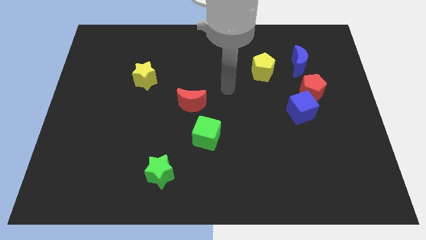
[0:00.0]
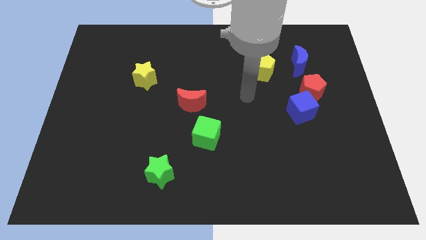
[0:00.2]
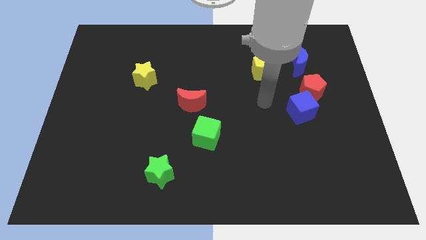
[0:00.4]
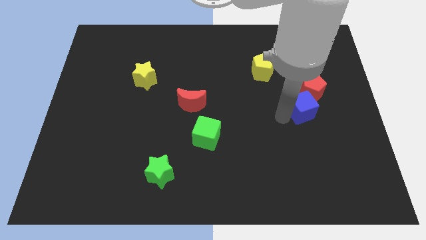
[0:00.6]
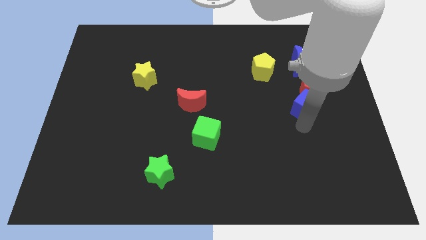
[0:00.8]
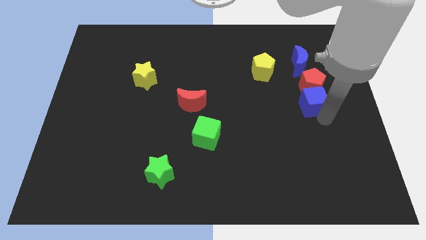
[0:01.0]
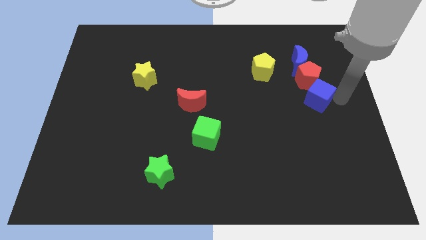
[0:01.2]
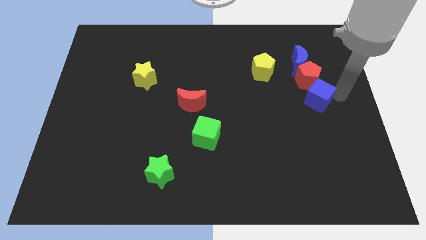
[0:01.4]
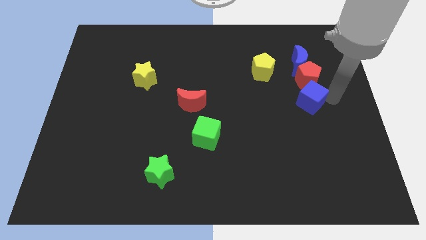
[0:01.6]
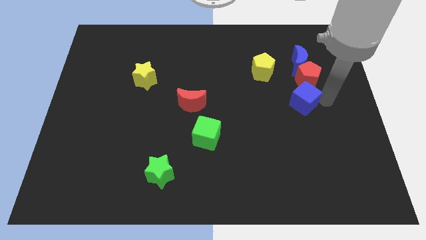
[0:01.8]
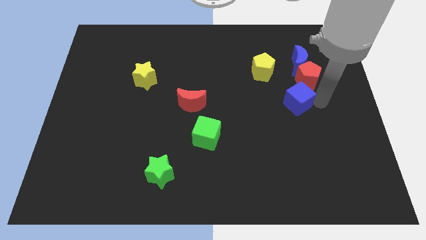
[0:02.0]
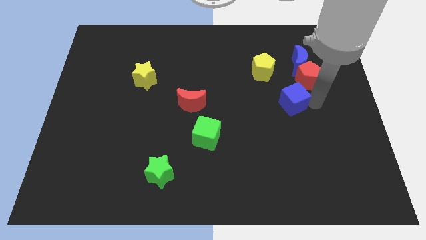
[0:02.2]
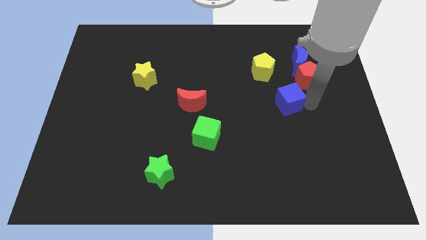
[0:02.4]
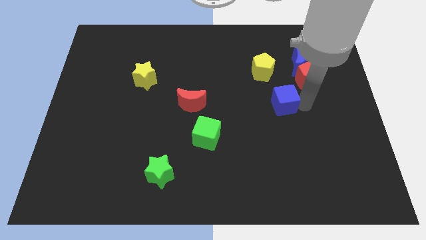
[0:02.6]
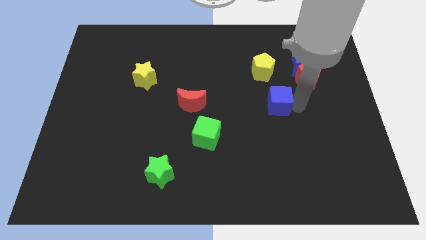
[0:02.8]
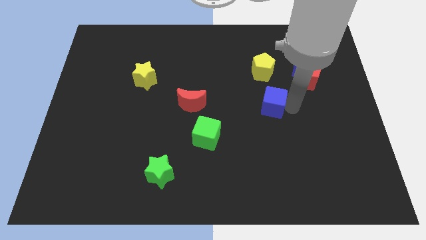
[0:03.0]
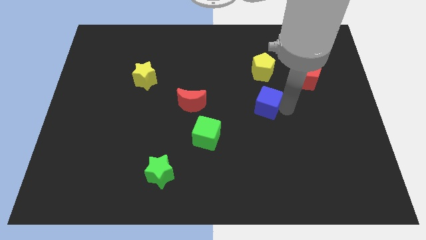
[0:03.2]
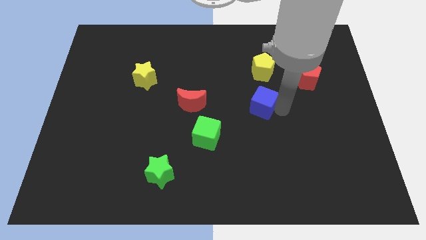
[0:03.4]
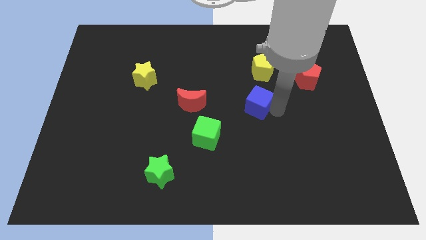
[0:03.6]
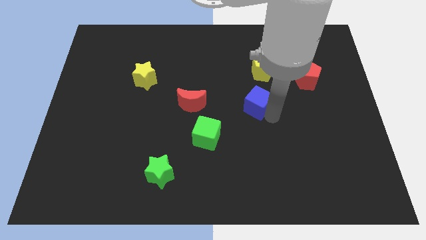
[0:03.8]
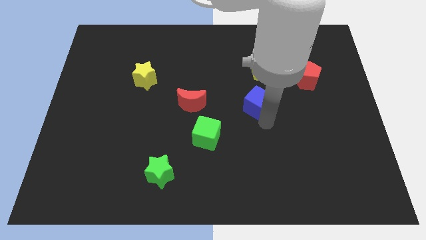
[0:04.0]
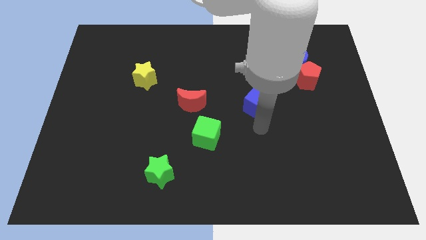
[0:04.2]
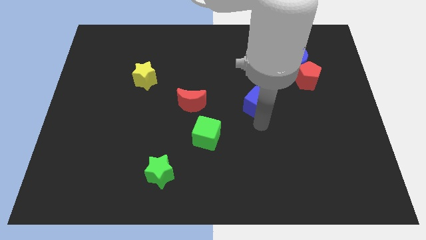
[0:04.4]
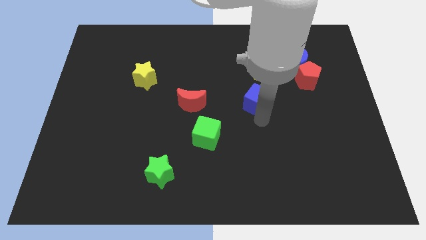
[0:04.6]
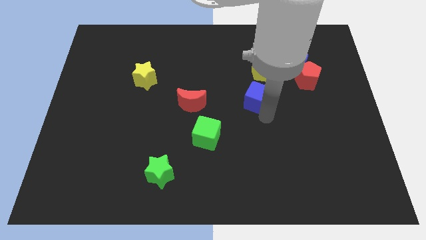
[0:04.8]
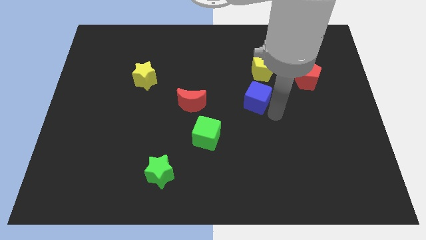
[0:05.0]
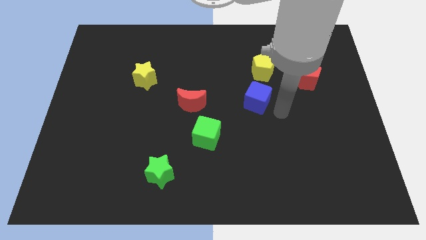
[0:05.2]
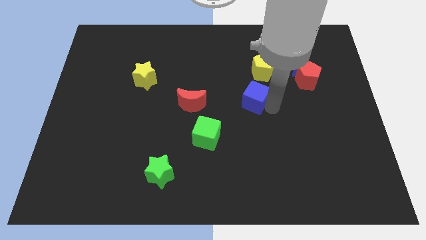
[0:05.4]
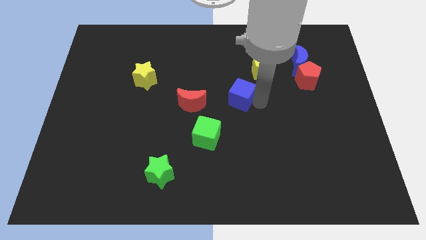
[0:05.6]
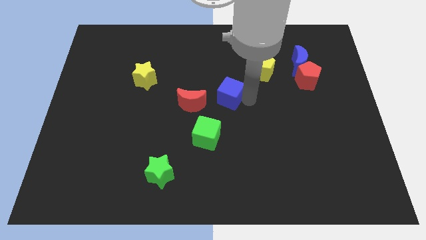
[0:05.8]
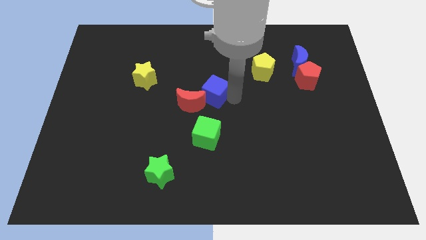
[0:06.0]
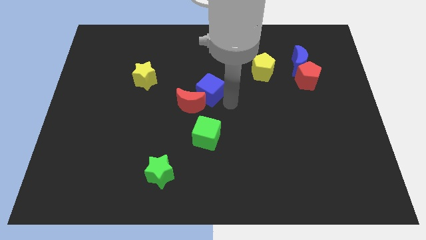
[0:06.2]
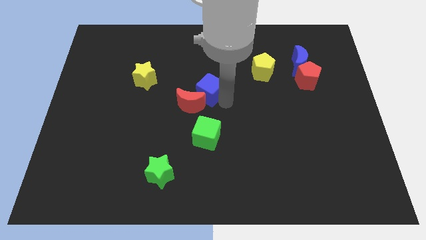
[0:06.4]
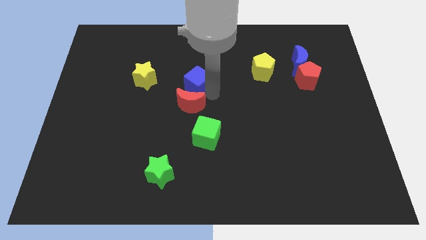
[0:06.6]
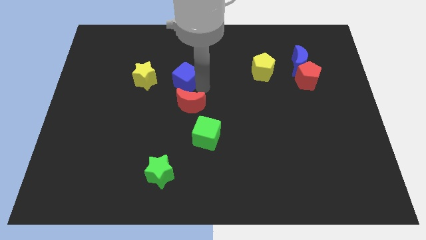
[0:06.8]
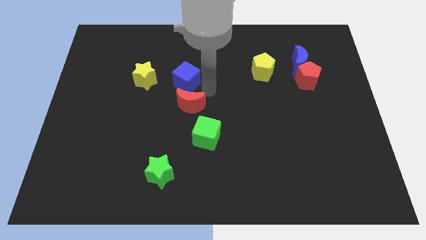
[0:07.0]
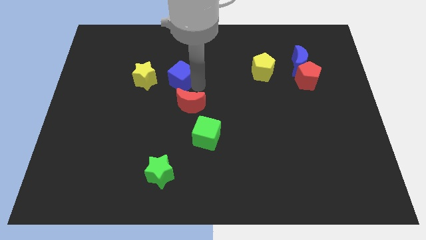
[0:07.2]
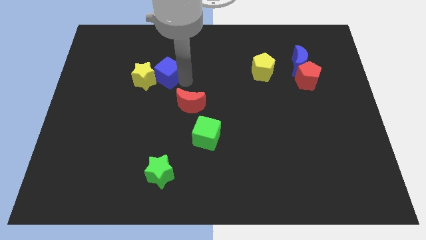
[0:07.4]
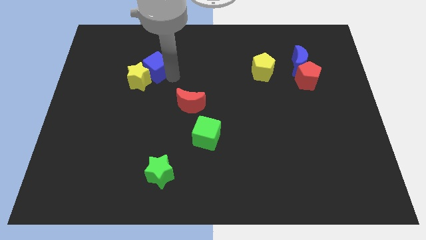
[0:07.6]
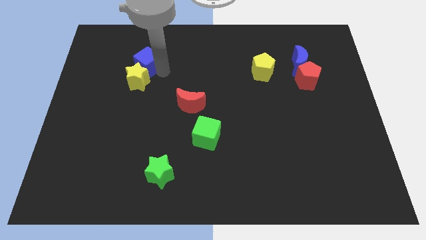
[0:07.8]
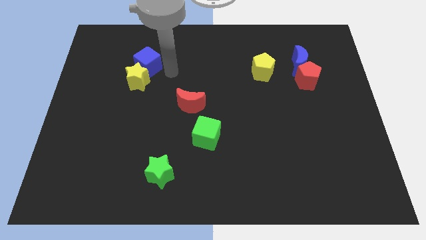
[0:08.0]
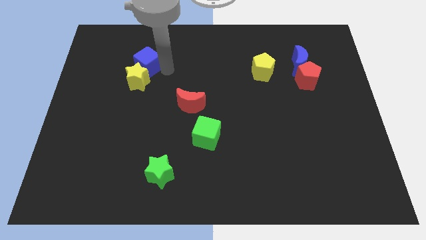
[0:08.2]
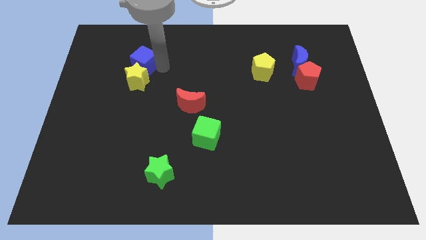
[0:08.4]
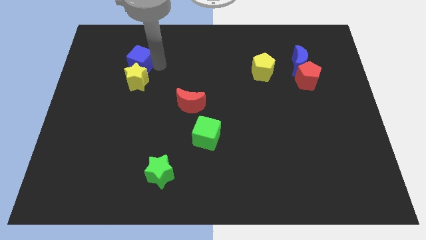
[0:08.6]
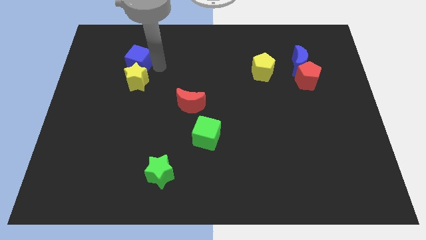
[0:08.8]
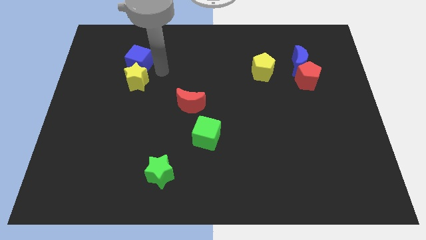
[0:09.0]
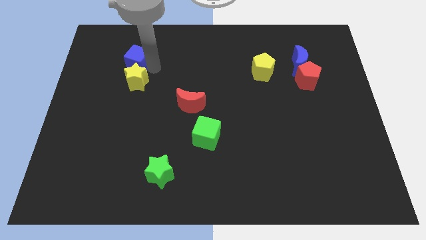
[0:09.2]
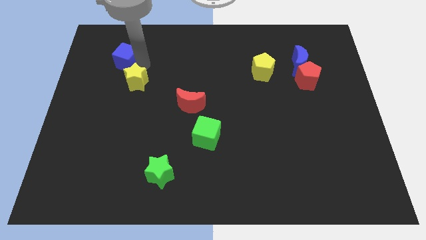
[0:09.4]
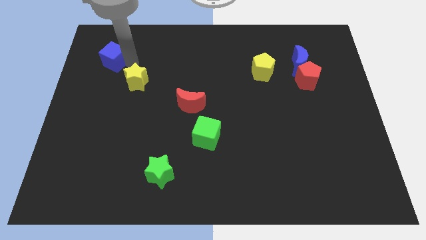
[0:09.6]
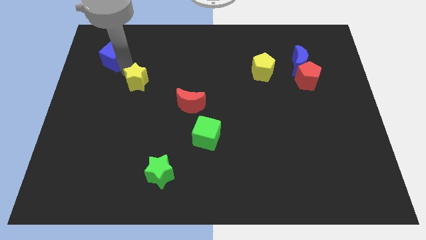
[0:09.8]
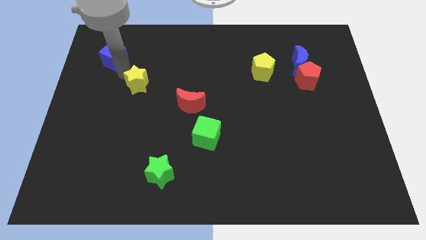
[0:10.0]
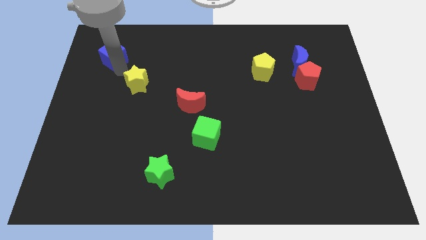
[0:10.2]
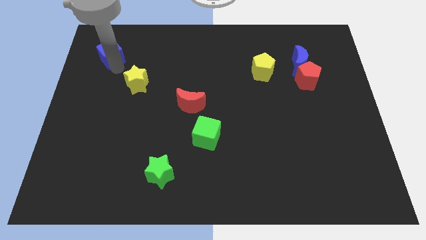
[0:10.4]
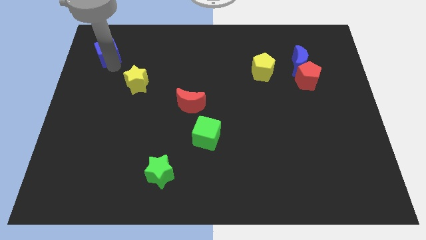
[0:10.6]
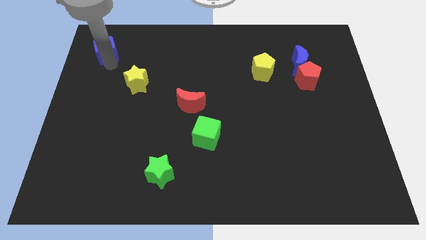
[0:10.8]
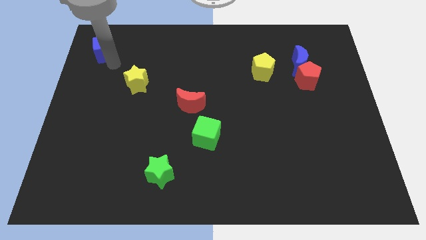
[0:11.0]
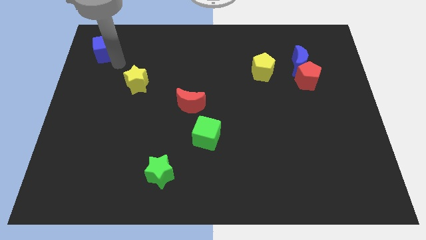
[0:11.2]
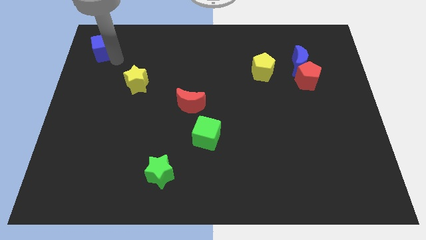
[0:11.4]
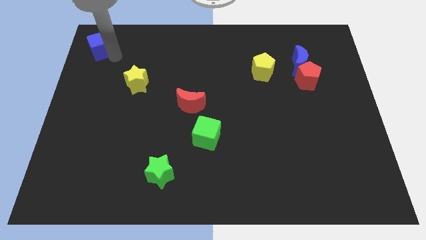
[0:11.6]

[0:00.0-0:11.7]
push the blue cube to the top left corner

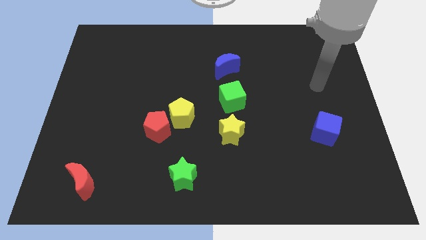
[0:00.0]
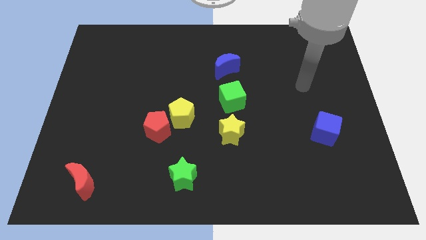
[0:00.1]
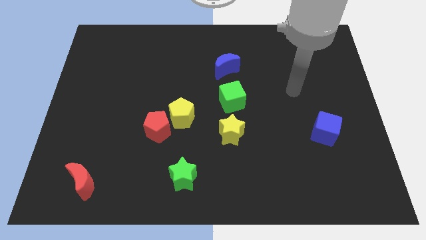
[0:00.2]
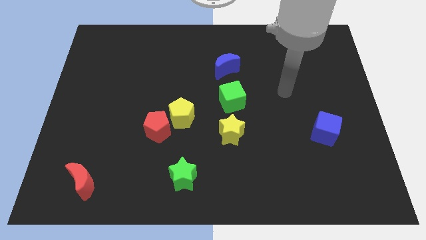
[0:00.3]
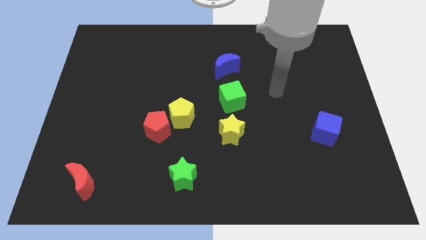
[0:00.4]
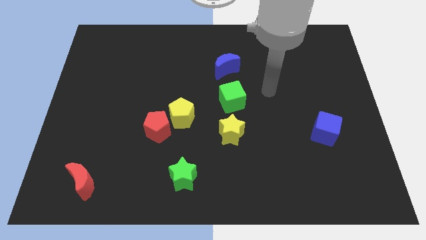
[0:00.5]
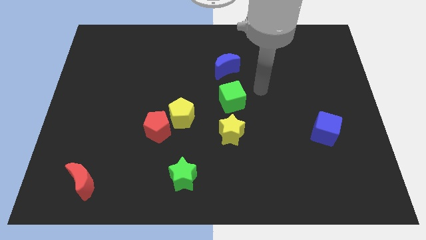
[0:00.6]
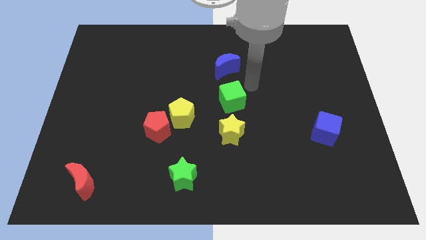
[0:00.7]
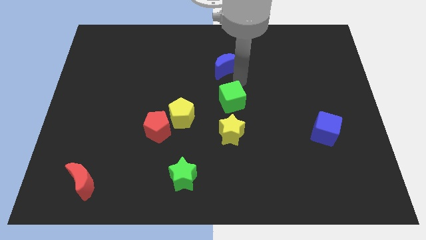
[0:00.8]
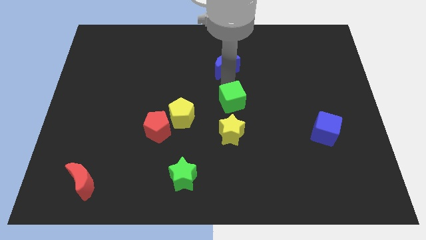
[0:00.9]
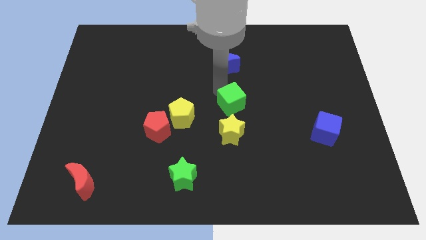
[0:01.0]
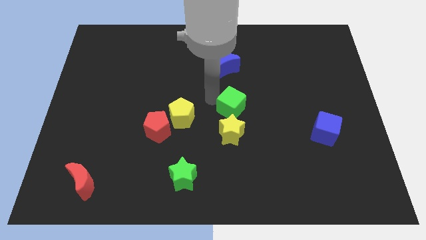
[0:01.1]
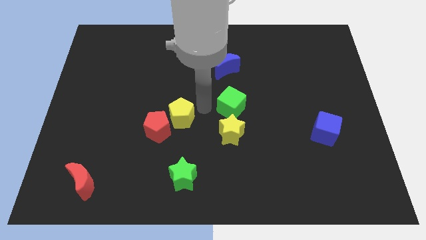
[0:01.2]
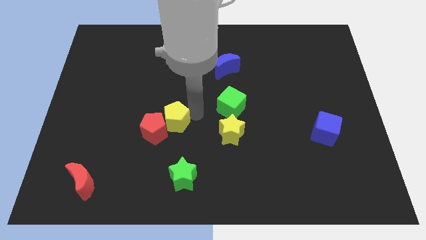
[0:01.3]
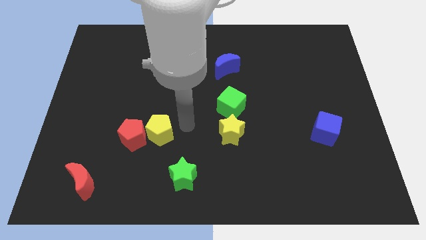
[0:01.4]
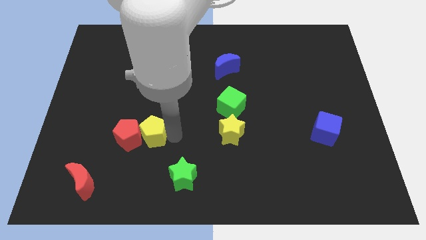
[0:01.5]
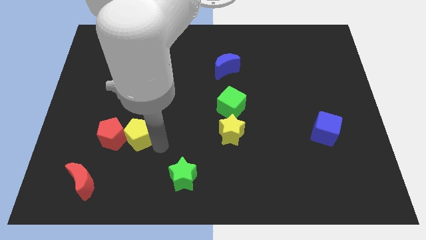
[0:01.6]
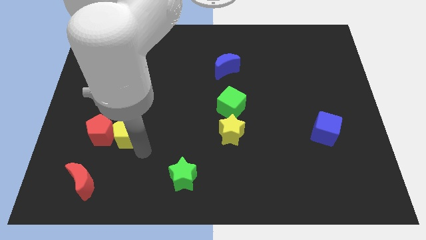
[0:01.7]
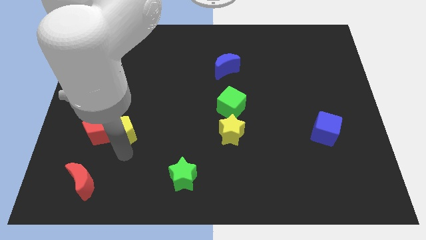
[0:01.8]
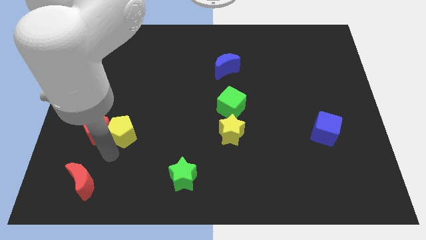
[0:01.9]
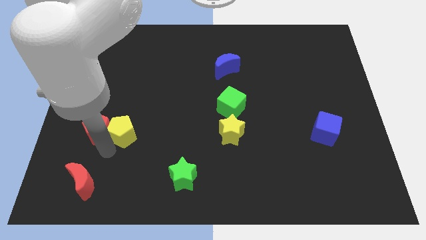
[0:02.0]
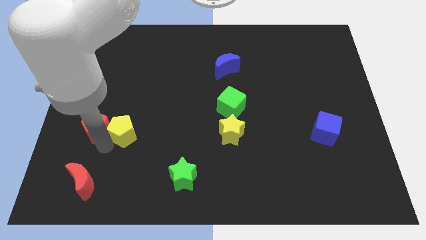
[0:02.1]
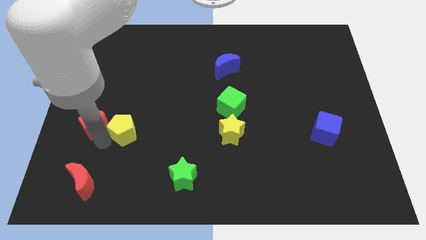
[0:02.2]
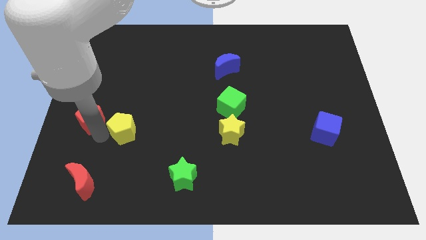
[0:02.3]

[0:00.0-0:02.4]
put the red pentagon to the center left
